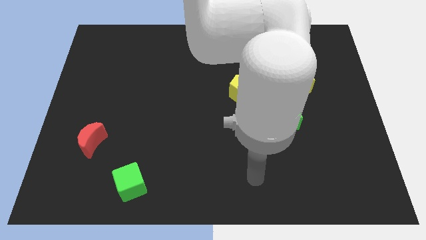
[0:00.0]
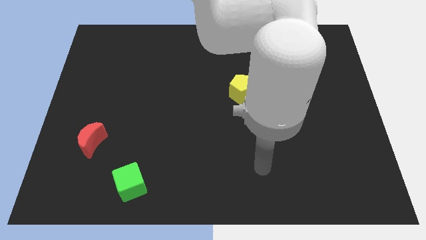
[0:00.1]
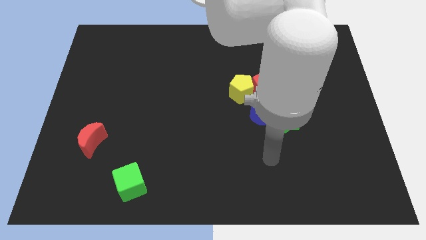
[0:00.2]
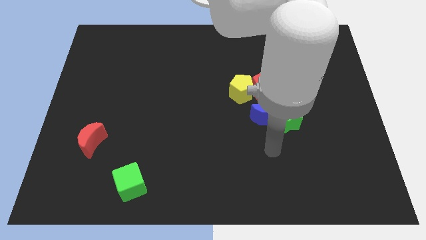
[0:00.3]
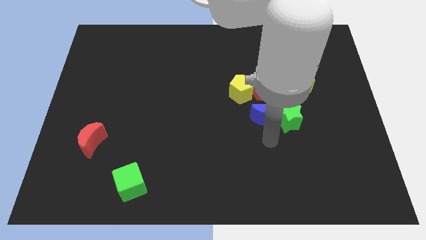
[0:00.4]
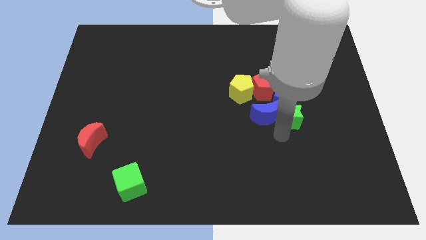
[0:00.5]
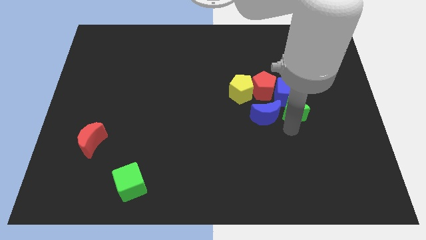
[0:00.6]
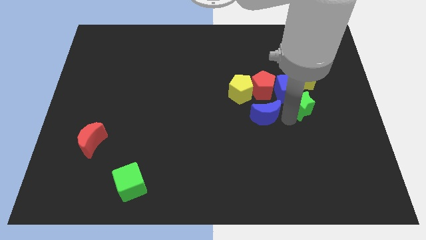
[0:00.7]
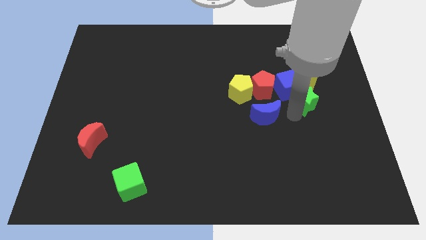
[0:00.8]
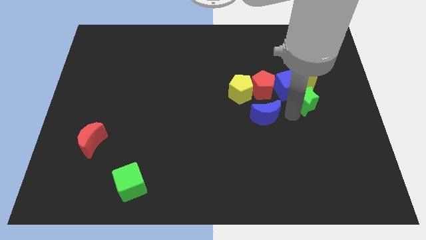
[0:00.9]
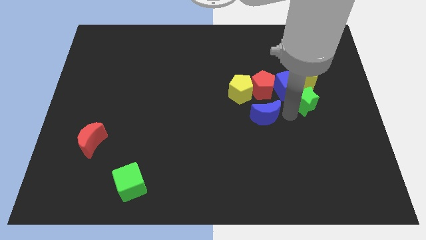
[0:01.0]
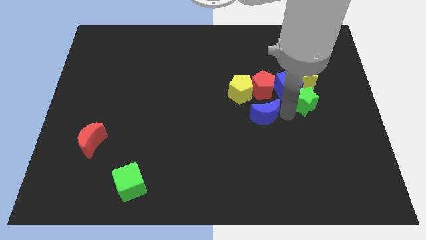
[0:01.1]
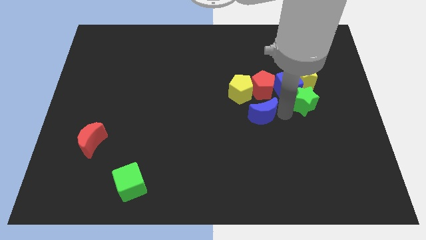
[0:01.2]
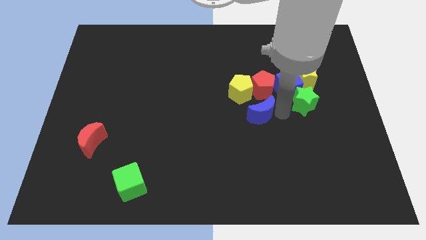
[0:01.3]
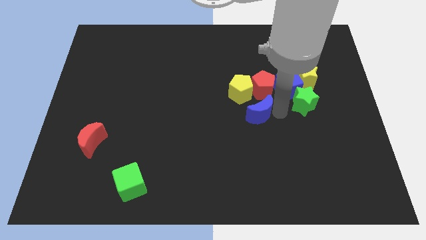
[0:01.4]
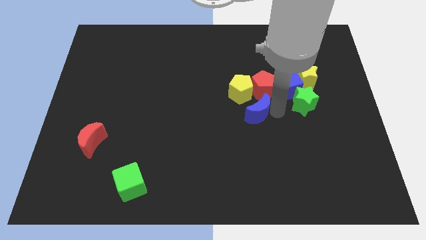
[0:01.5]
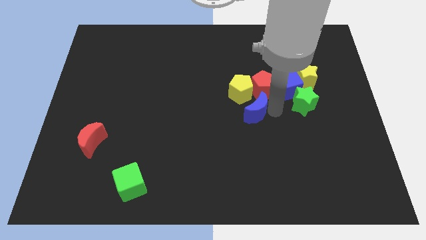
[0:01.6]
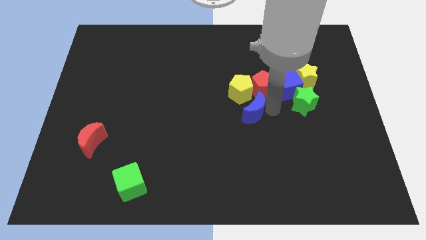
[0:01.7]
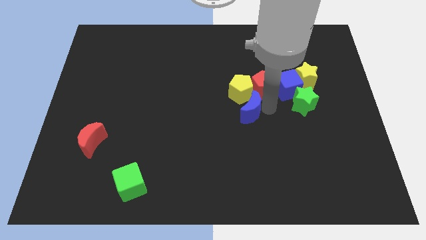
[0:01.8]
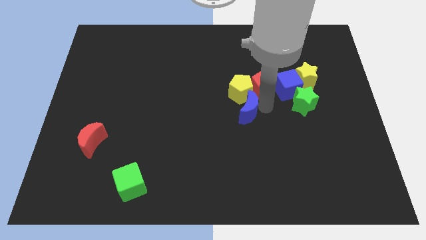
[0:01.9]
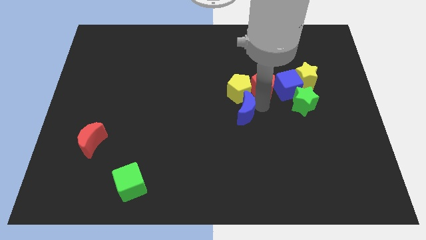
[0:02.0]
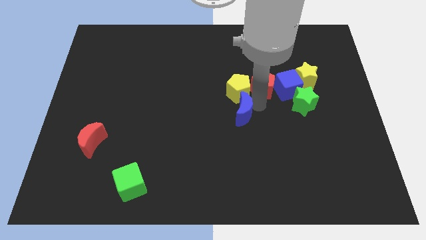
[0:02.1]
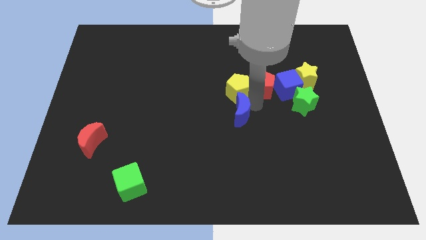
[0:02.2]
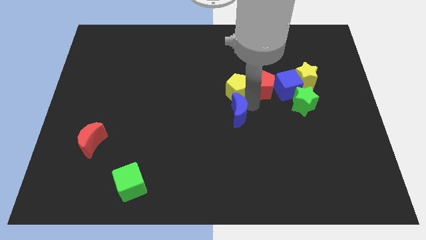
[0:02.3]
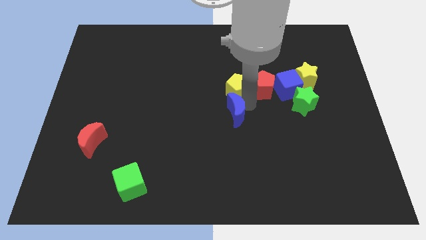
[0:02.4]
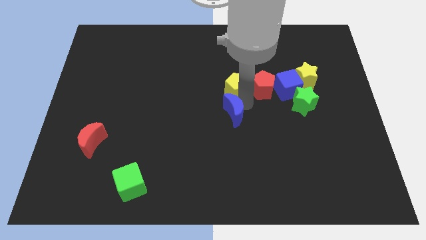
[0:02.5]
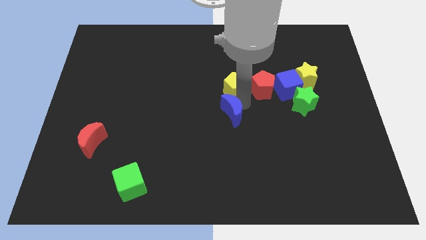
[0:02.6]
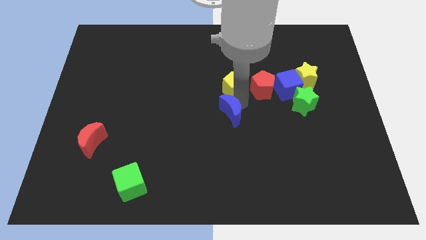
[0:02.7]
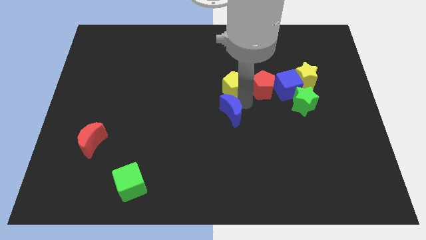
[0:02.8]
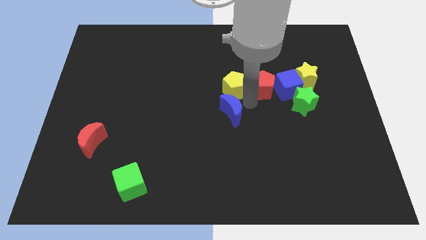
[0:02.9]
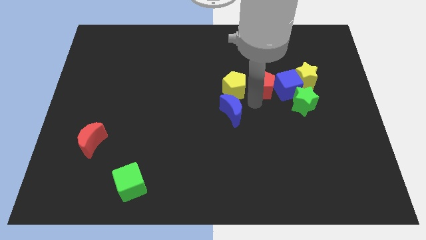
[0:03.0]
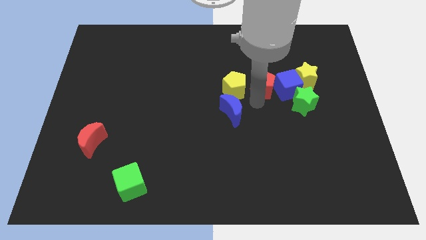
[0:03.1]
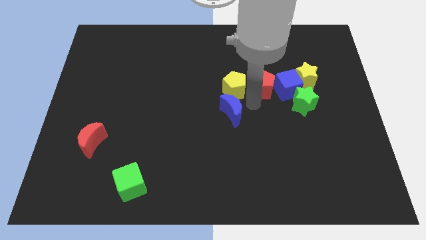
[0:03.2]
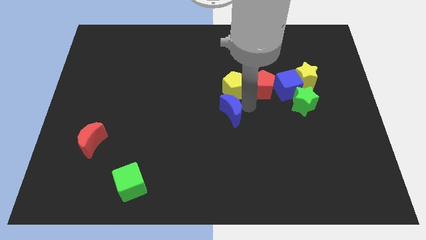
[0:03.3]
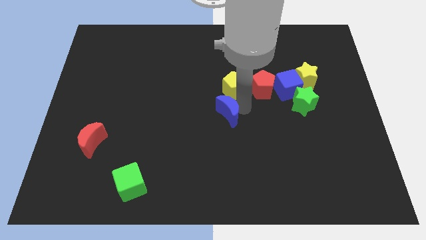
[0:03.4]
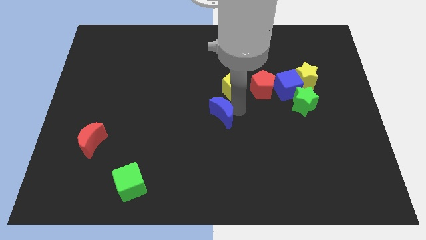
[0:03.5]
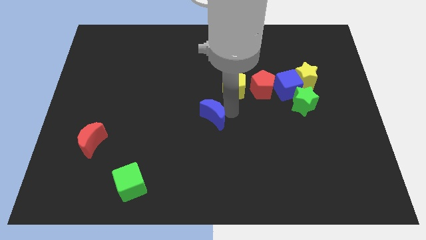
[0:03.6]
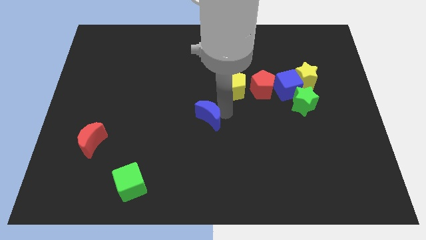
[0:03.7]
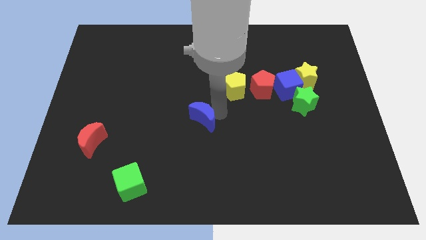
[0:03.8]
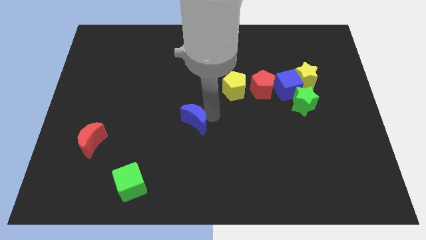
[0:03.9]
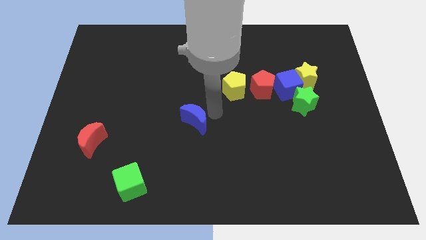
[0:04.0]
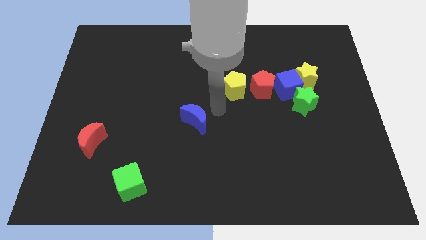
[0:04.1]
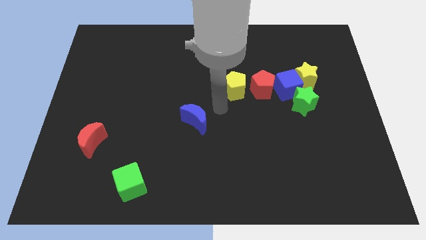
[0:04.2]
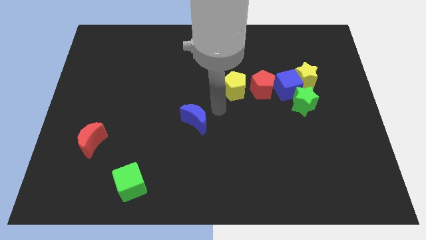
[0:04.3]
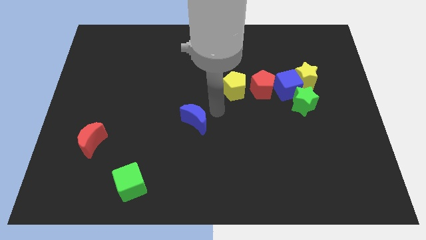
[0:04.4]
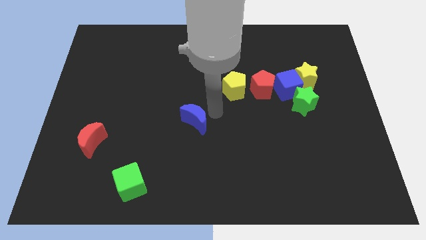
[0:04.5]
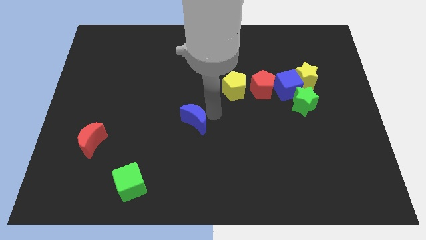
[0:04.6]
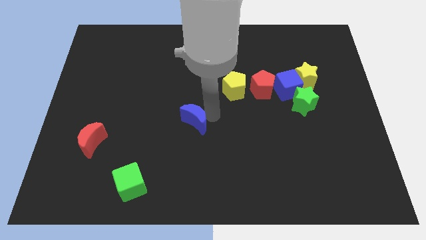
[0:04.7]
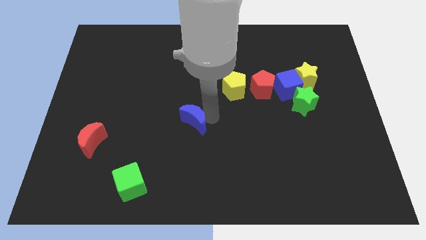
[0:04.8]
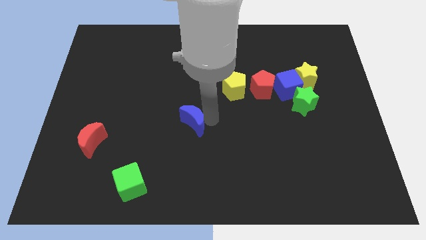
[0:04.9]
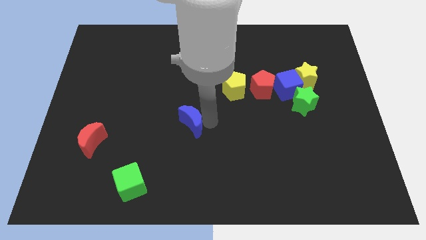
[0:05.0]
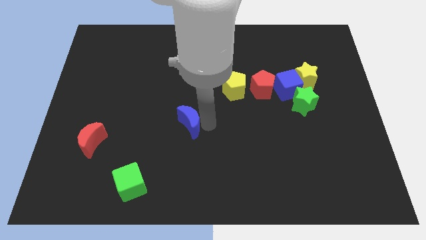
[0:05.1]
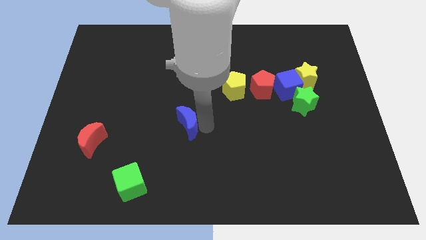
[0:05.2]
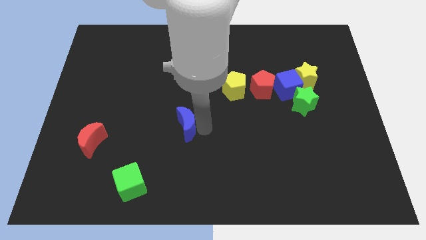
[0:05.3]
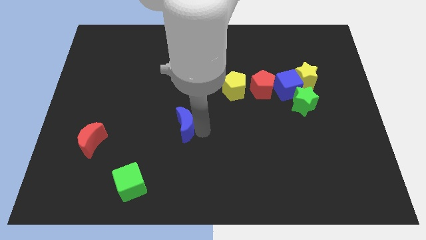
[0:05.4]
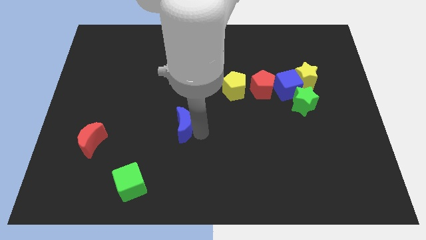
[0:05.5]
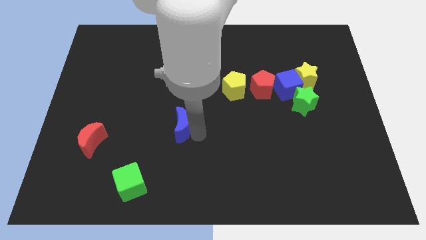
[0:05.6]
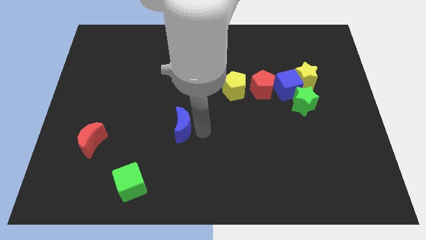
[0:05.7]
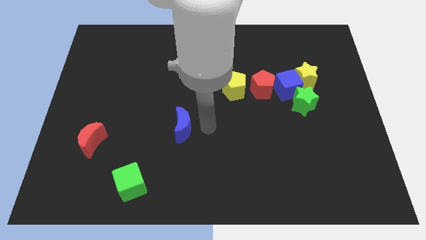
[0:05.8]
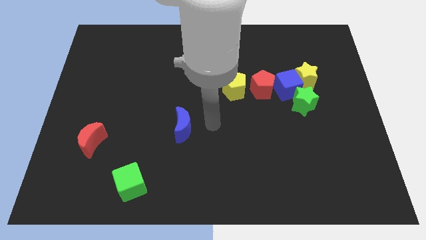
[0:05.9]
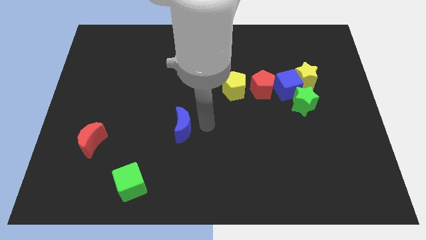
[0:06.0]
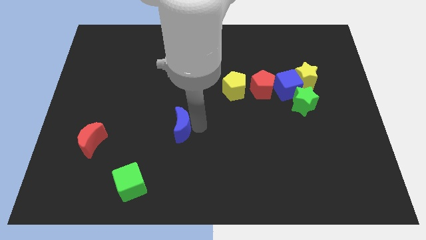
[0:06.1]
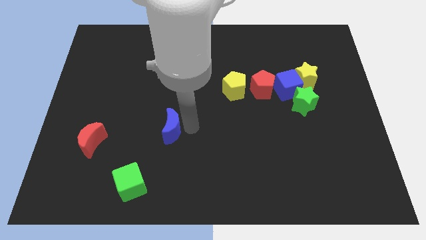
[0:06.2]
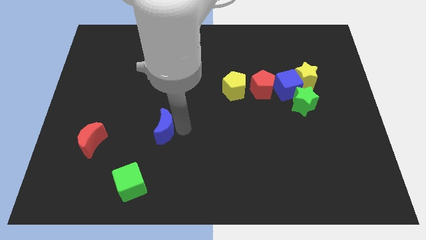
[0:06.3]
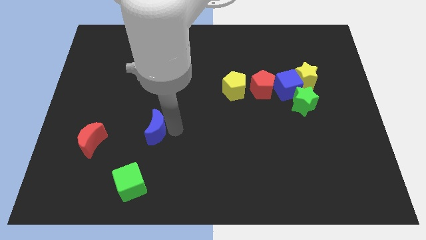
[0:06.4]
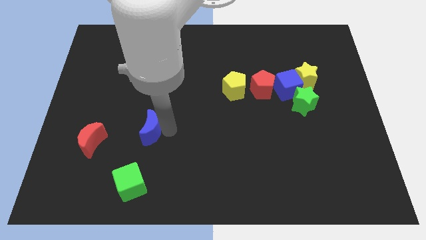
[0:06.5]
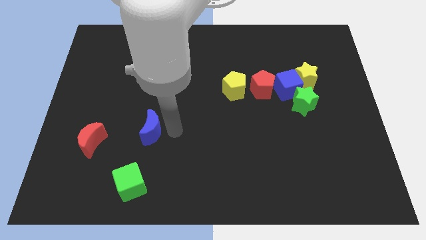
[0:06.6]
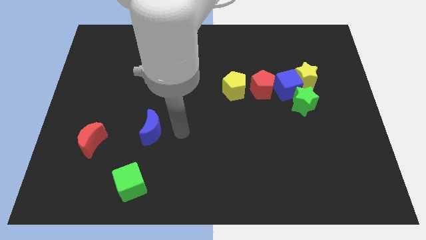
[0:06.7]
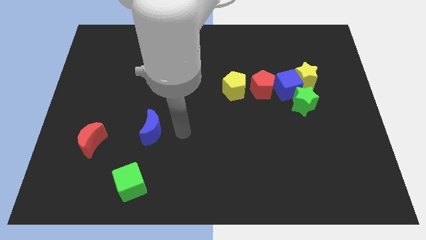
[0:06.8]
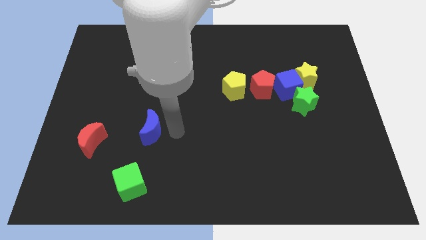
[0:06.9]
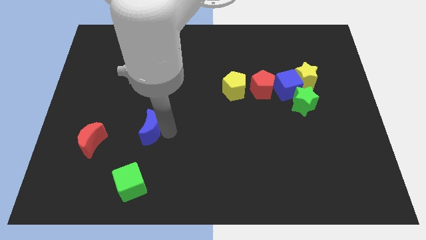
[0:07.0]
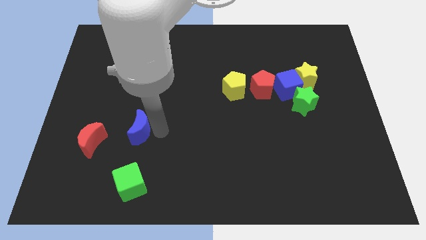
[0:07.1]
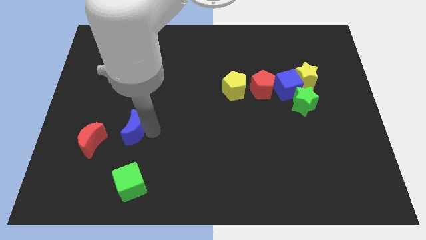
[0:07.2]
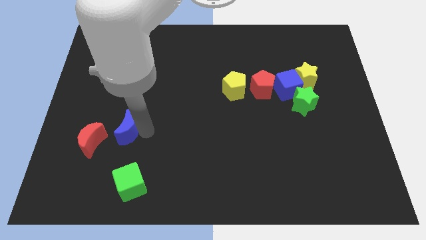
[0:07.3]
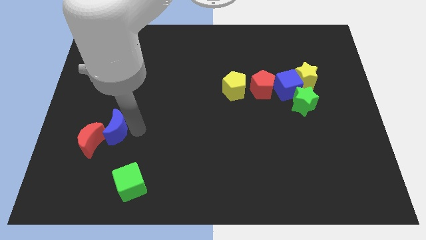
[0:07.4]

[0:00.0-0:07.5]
push the blue moon next to the red moon
